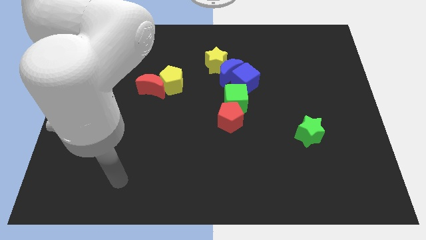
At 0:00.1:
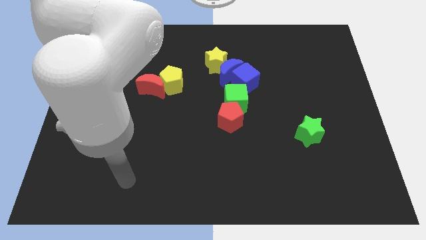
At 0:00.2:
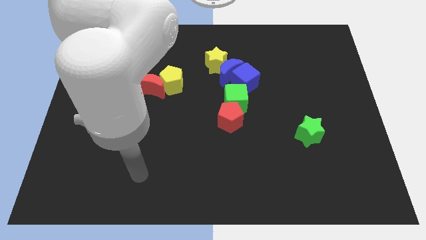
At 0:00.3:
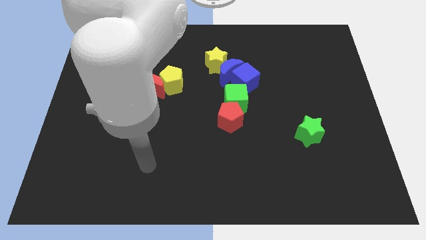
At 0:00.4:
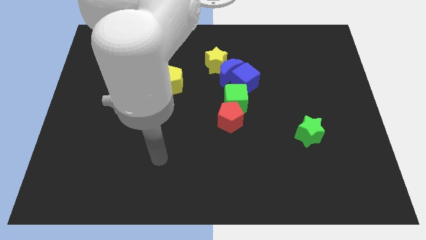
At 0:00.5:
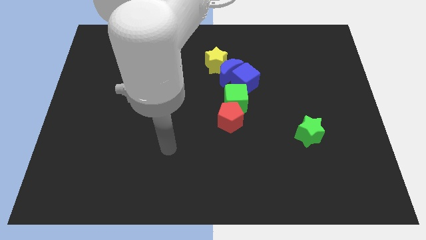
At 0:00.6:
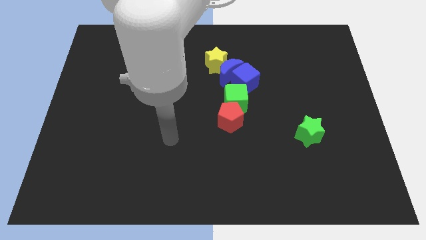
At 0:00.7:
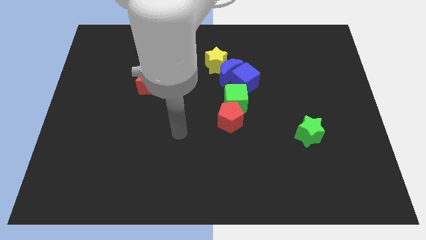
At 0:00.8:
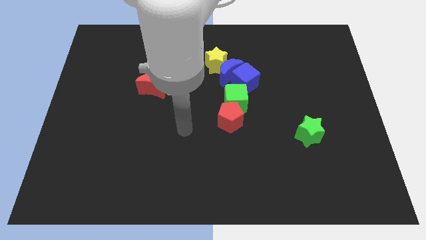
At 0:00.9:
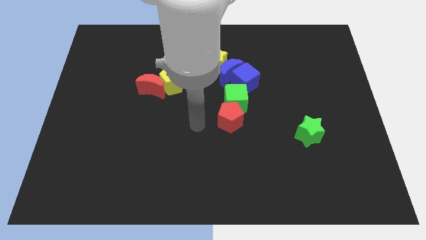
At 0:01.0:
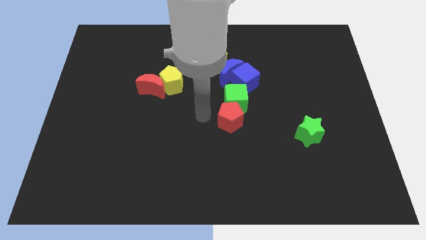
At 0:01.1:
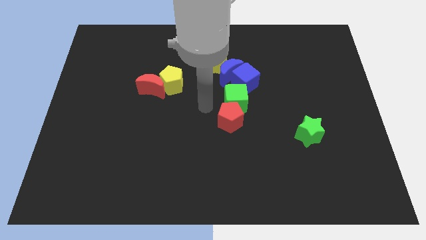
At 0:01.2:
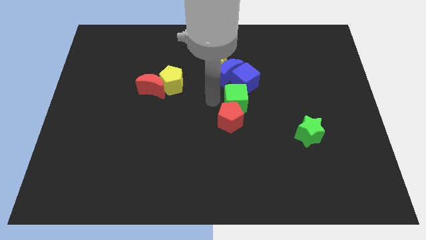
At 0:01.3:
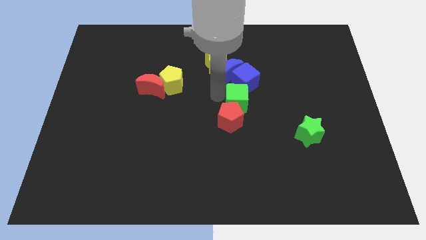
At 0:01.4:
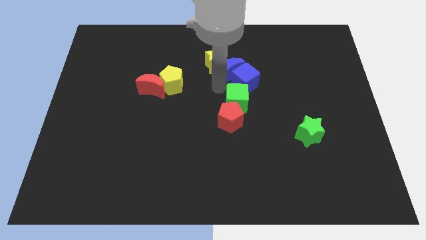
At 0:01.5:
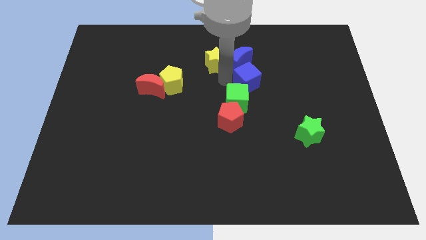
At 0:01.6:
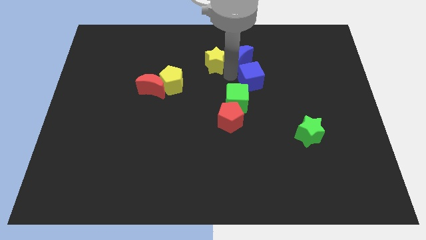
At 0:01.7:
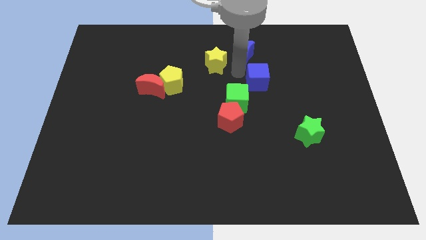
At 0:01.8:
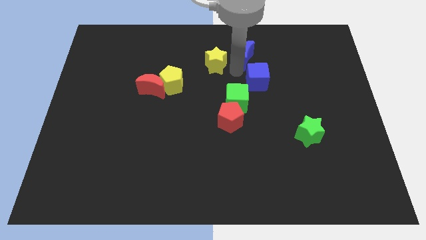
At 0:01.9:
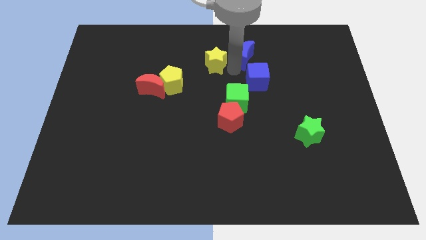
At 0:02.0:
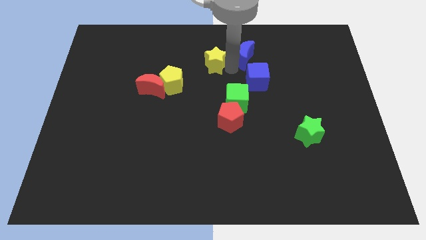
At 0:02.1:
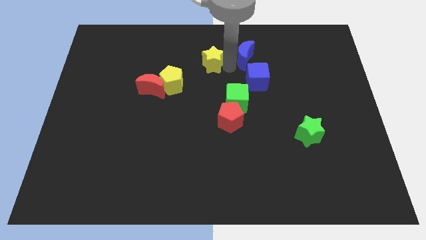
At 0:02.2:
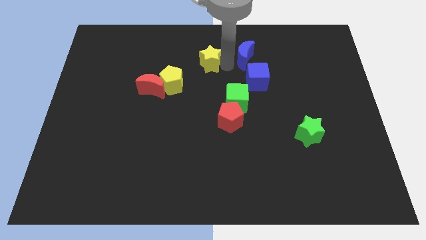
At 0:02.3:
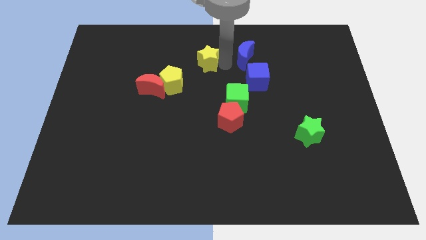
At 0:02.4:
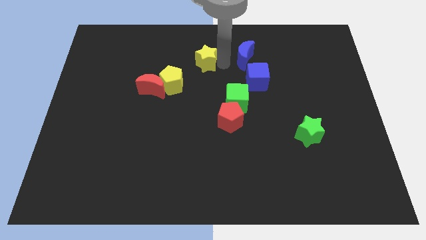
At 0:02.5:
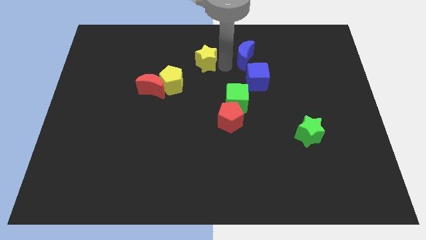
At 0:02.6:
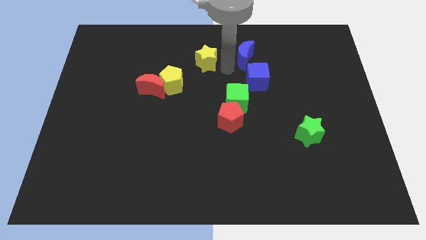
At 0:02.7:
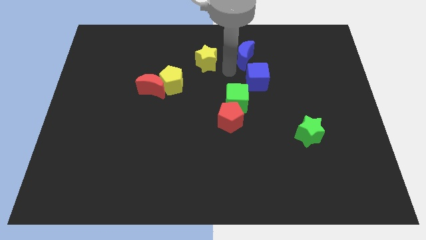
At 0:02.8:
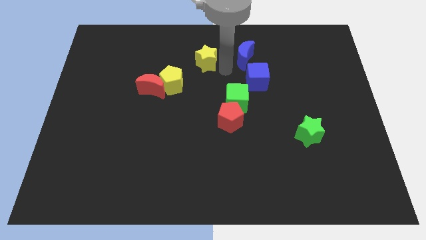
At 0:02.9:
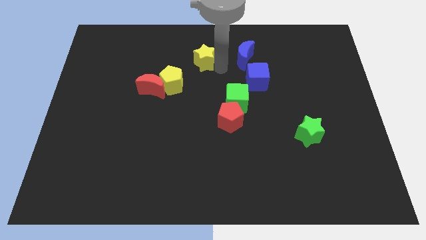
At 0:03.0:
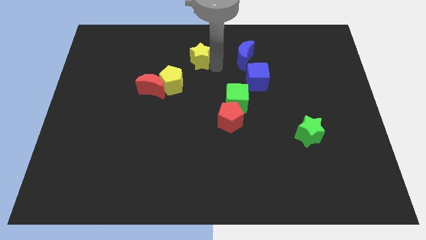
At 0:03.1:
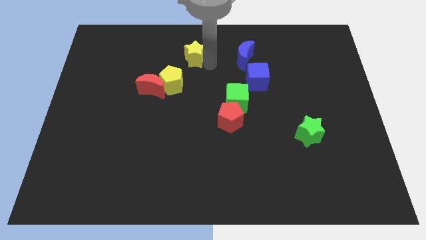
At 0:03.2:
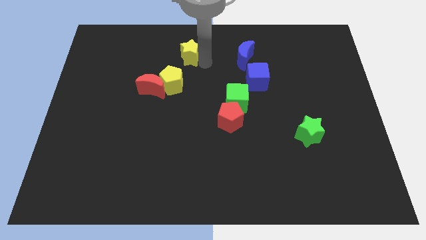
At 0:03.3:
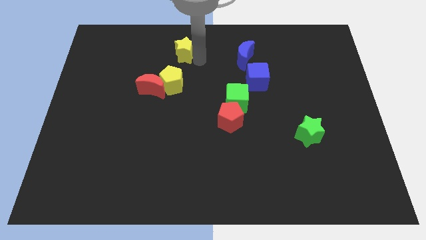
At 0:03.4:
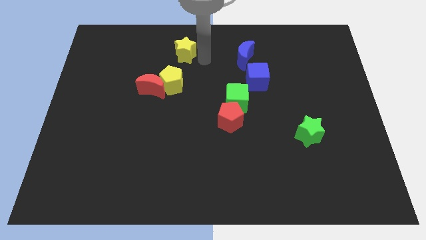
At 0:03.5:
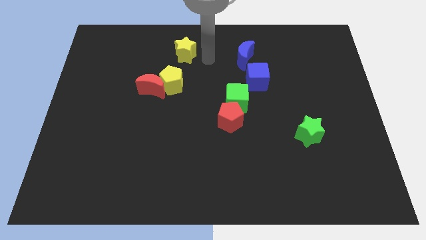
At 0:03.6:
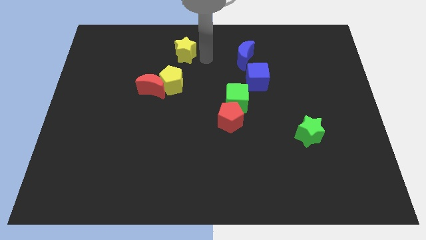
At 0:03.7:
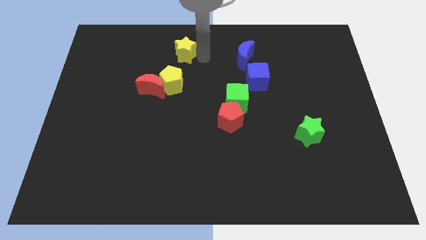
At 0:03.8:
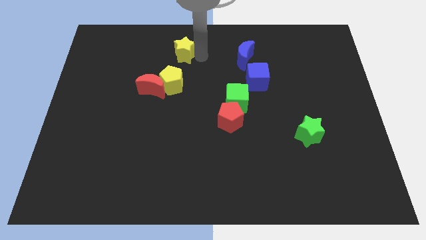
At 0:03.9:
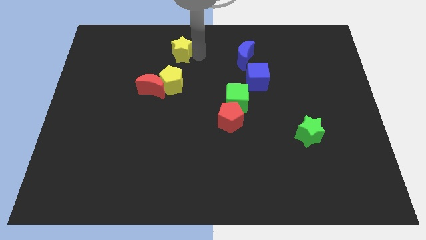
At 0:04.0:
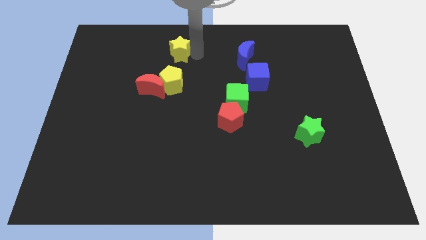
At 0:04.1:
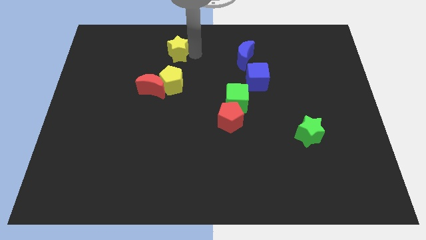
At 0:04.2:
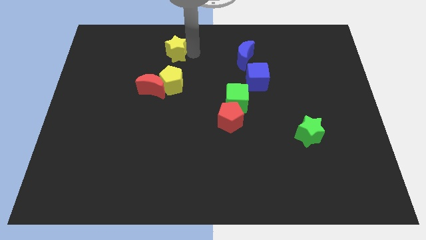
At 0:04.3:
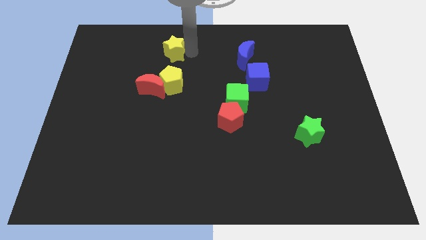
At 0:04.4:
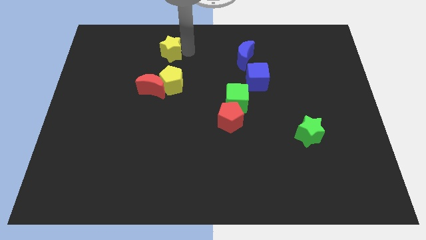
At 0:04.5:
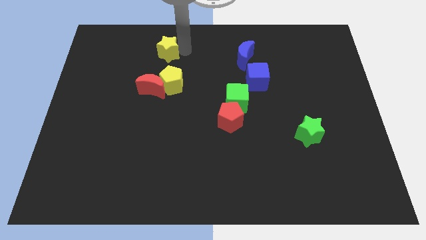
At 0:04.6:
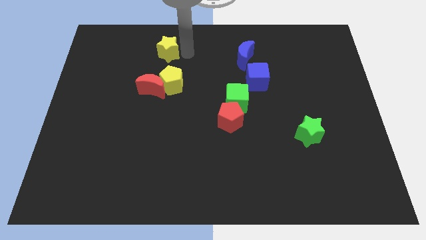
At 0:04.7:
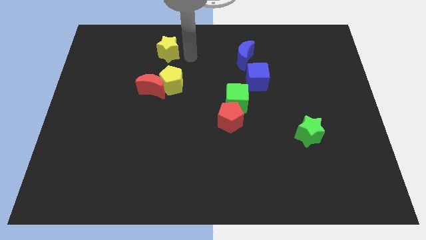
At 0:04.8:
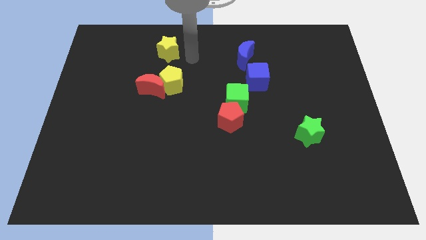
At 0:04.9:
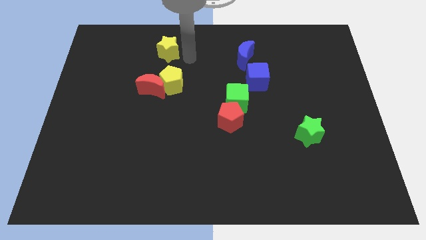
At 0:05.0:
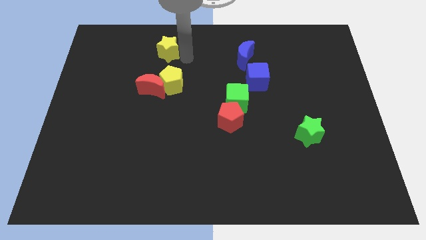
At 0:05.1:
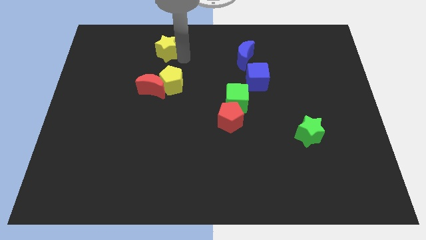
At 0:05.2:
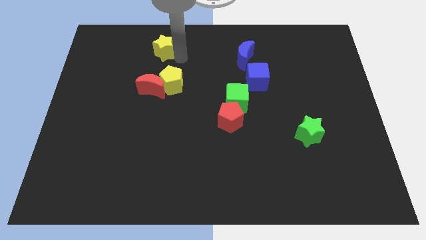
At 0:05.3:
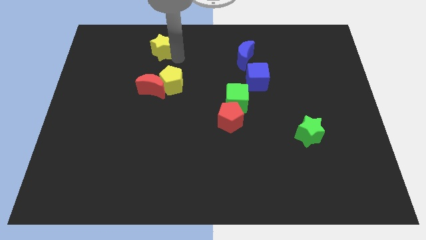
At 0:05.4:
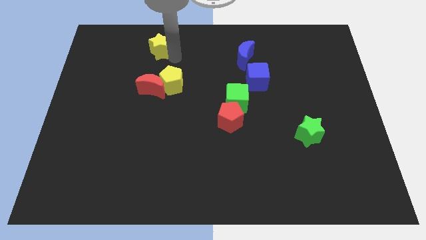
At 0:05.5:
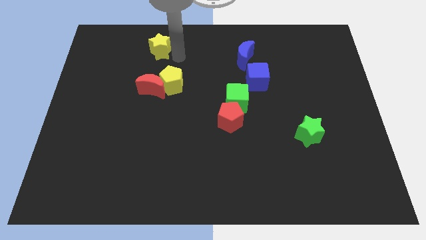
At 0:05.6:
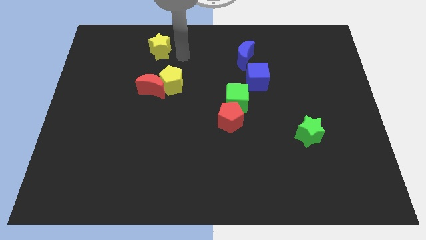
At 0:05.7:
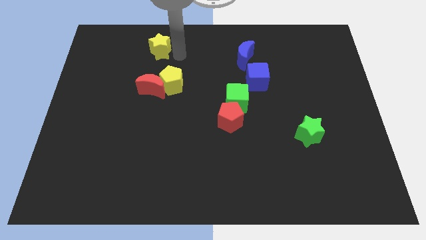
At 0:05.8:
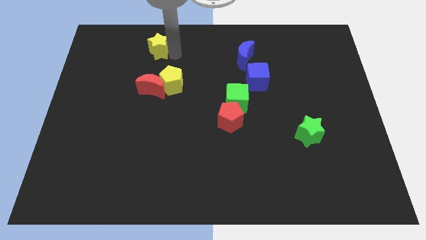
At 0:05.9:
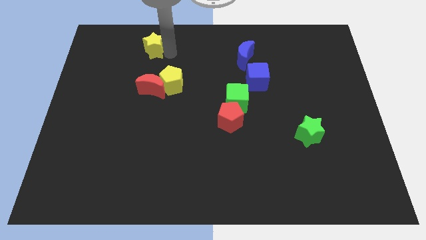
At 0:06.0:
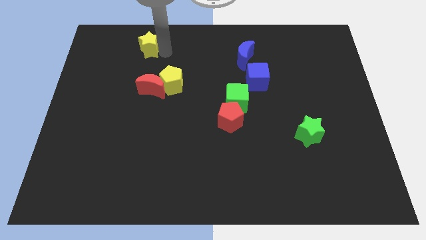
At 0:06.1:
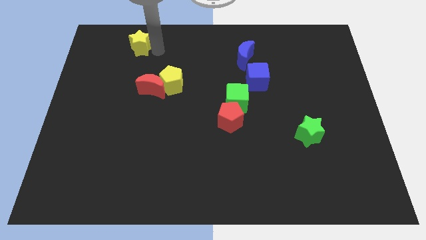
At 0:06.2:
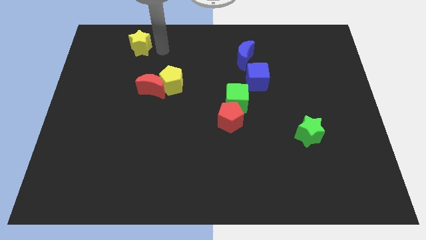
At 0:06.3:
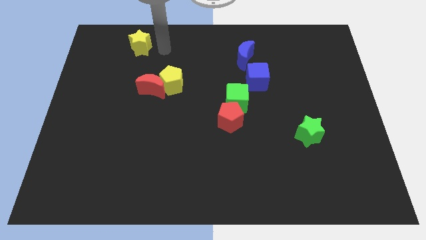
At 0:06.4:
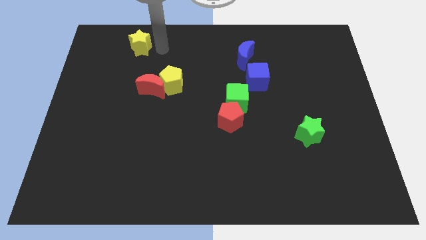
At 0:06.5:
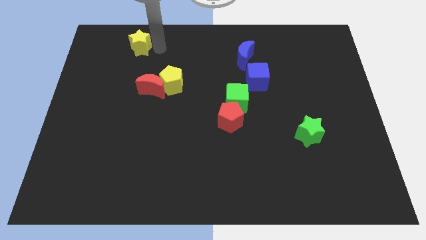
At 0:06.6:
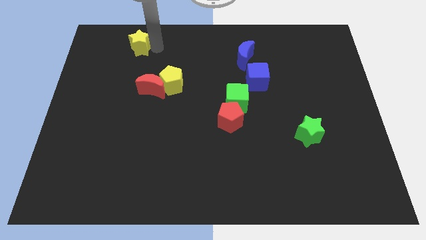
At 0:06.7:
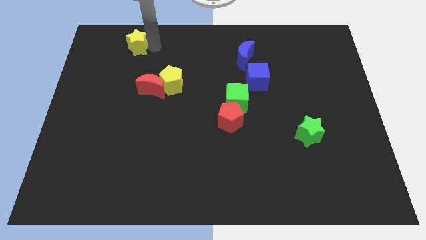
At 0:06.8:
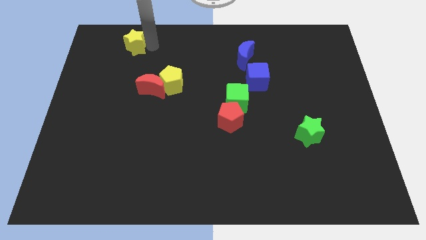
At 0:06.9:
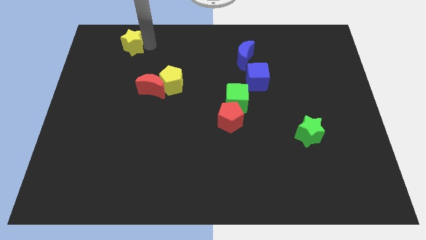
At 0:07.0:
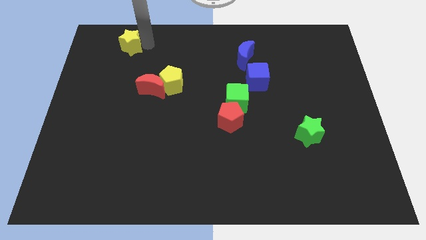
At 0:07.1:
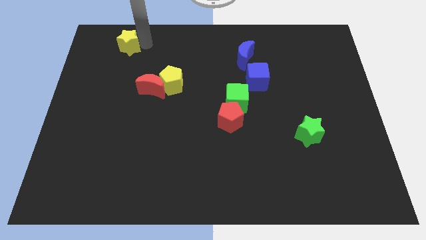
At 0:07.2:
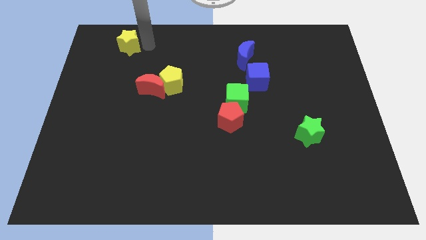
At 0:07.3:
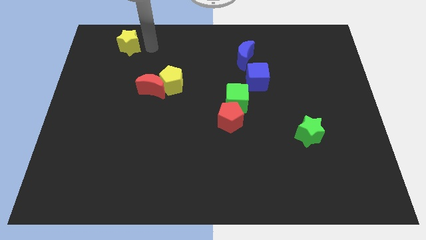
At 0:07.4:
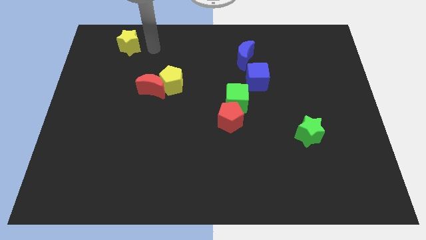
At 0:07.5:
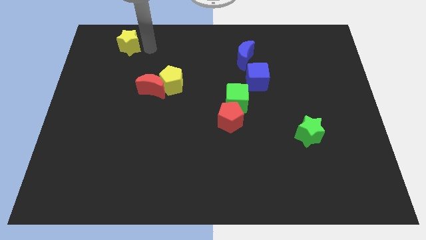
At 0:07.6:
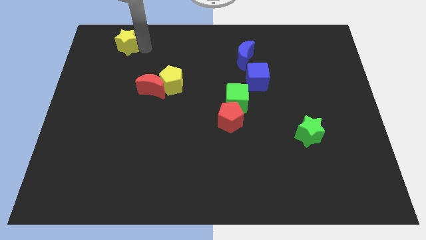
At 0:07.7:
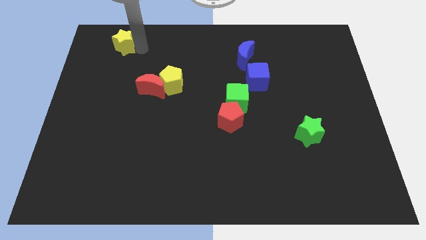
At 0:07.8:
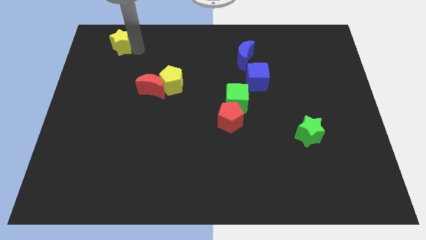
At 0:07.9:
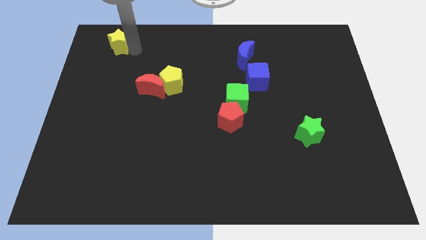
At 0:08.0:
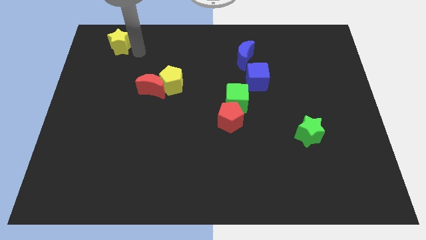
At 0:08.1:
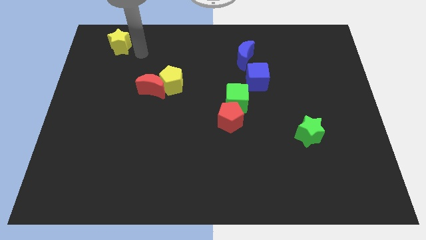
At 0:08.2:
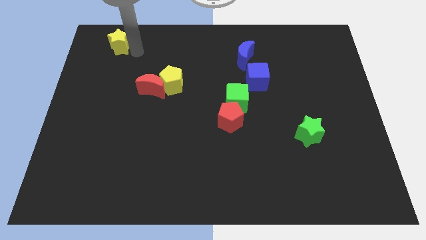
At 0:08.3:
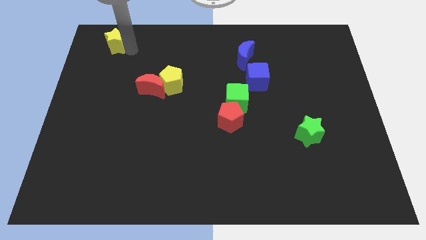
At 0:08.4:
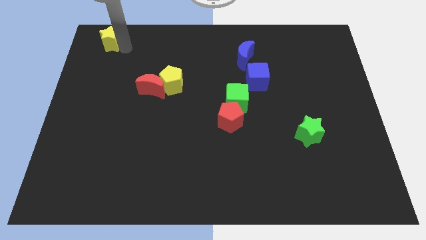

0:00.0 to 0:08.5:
move the yellow star to the top left of the board
